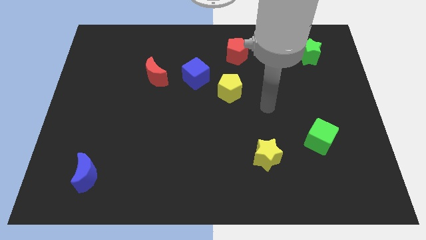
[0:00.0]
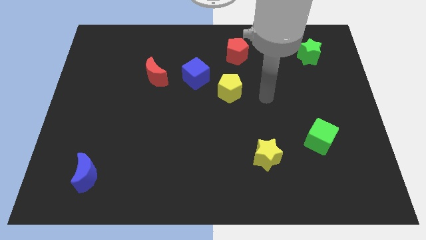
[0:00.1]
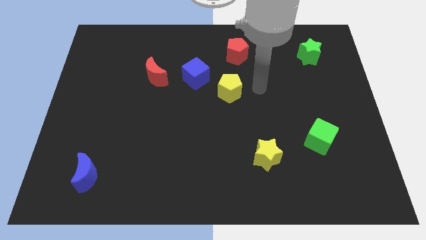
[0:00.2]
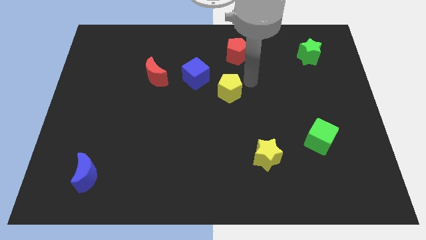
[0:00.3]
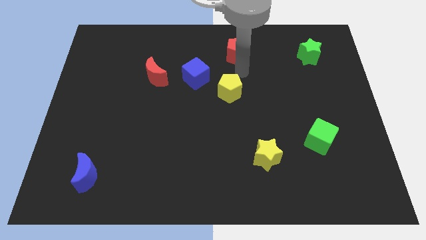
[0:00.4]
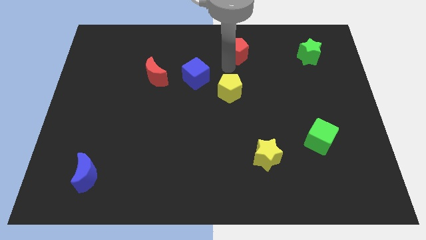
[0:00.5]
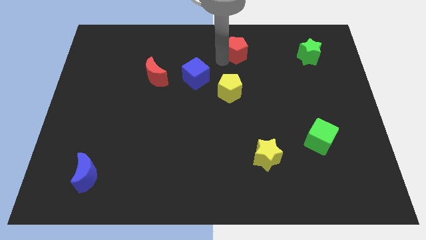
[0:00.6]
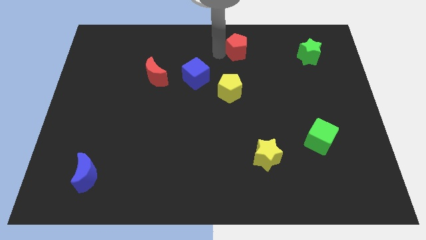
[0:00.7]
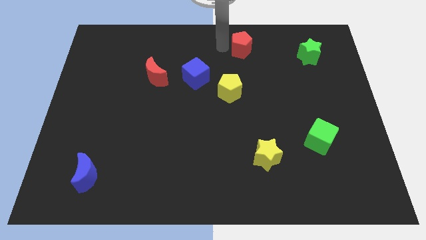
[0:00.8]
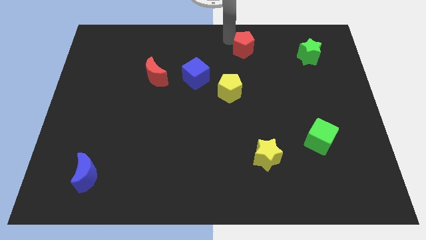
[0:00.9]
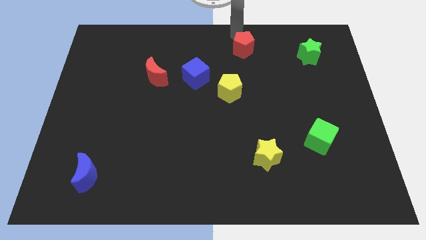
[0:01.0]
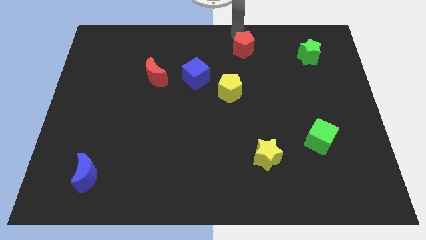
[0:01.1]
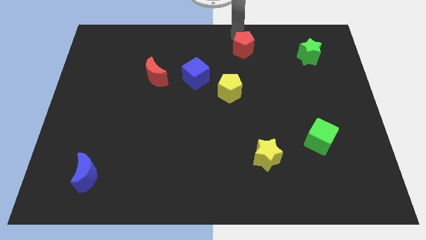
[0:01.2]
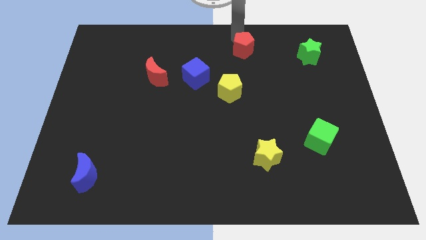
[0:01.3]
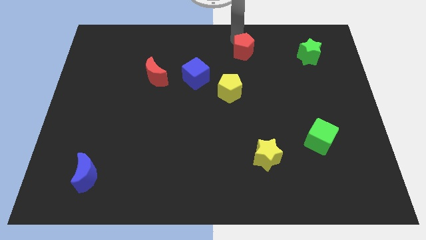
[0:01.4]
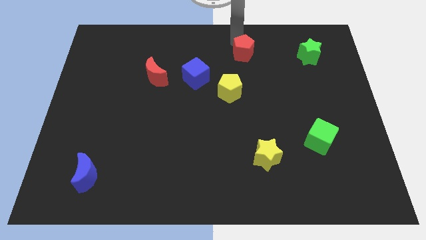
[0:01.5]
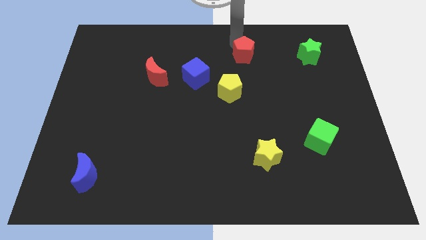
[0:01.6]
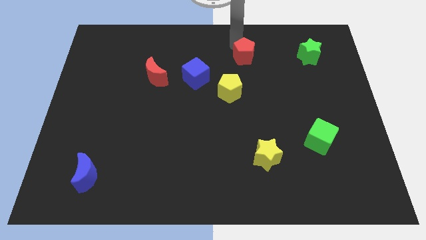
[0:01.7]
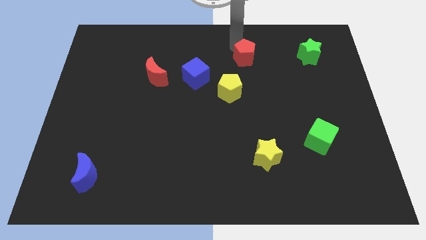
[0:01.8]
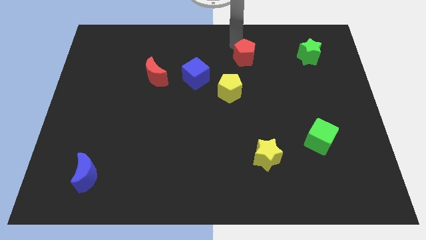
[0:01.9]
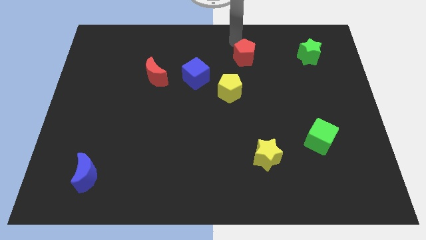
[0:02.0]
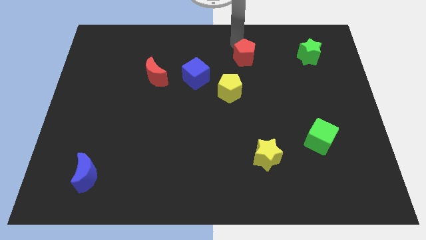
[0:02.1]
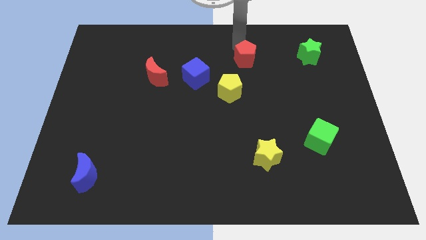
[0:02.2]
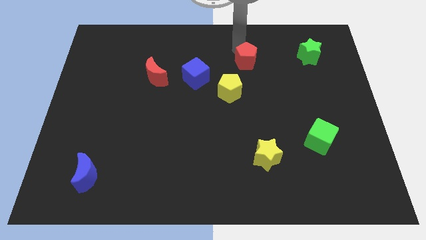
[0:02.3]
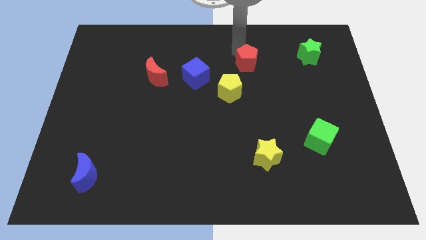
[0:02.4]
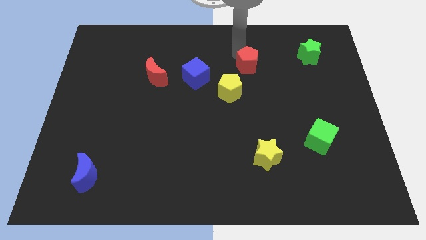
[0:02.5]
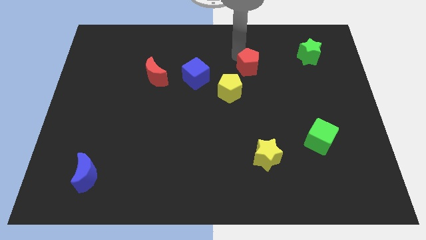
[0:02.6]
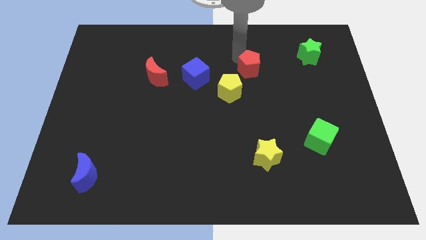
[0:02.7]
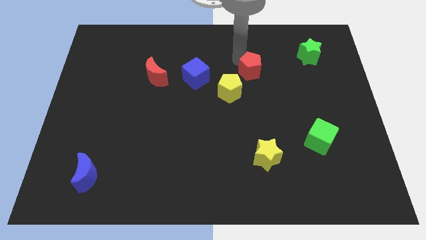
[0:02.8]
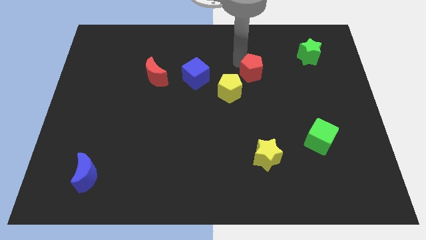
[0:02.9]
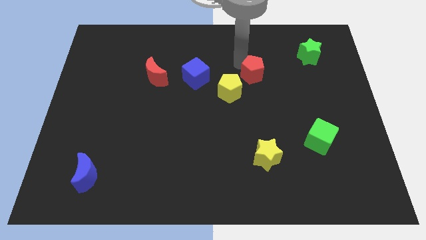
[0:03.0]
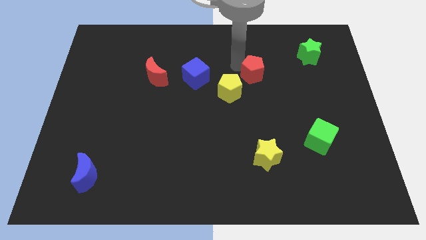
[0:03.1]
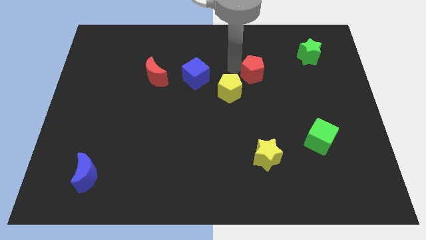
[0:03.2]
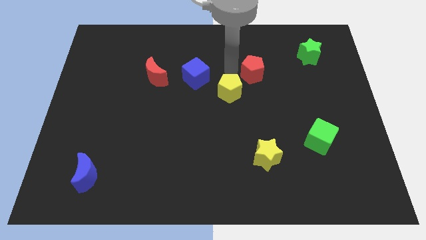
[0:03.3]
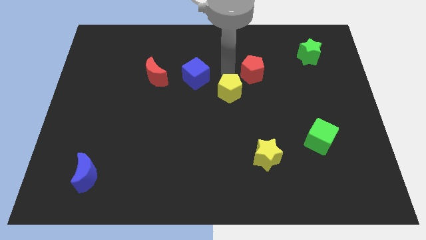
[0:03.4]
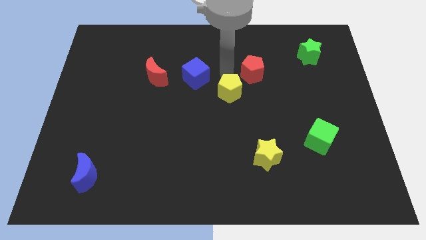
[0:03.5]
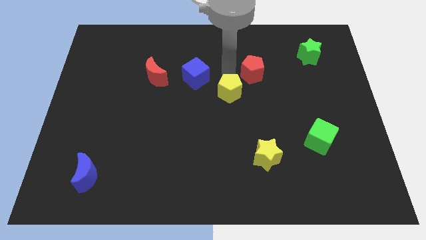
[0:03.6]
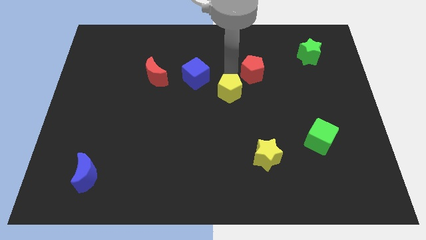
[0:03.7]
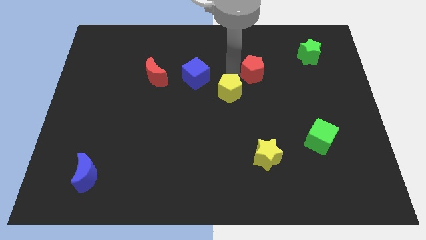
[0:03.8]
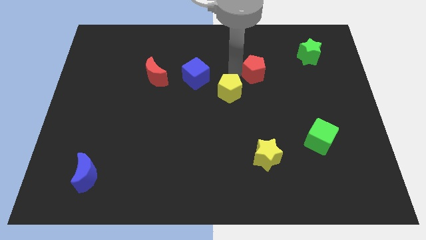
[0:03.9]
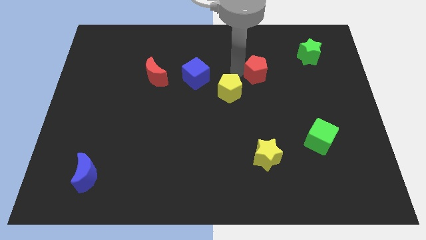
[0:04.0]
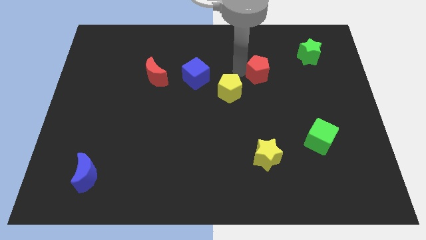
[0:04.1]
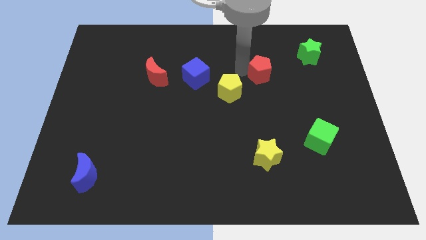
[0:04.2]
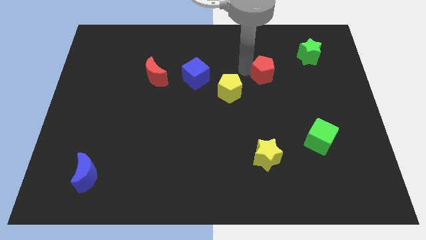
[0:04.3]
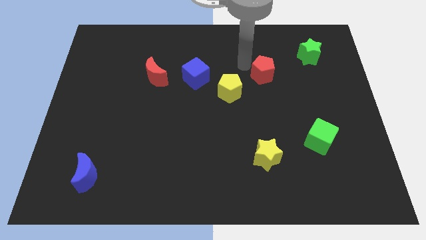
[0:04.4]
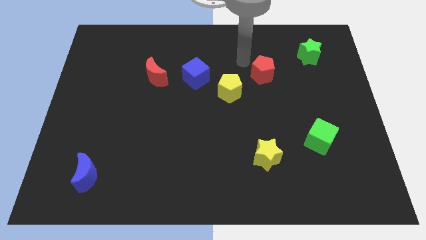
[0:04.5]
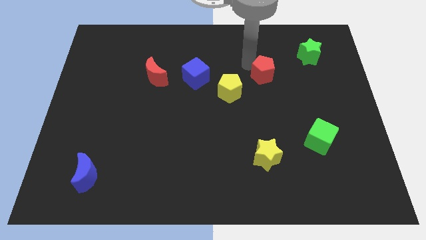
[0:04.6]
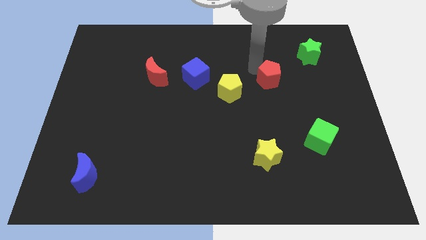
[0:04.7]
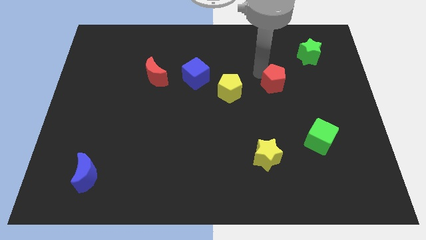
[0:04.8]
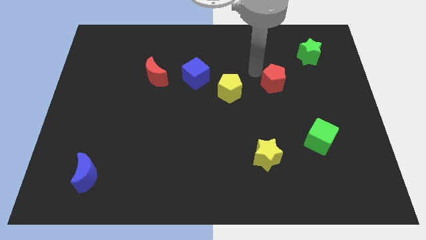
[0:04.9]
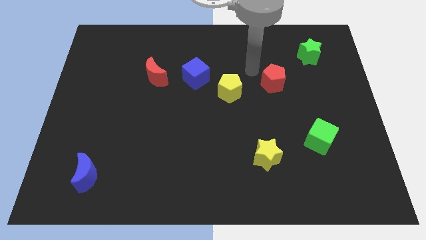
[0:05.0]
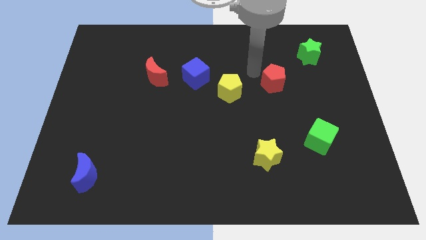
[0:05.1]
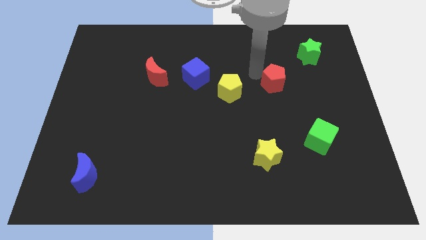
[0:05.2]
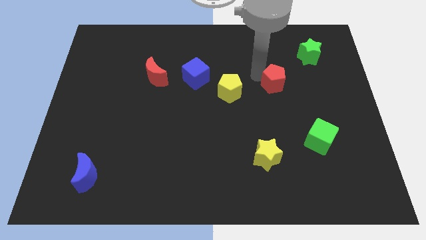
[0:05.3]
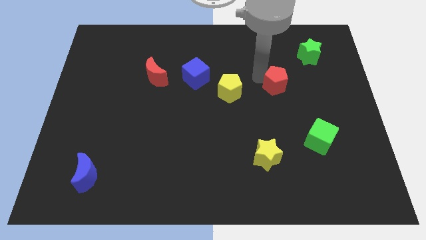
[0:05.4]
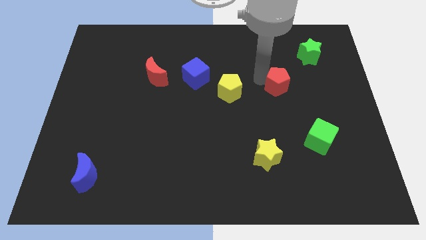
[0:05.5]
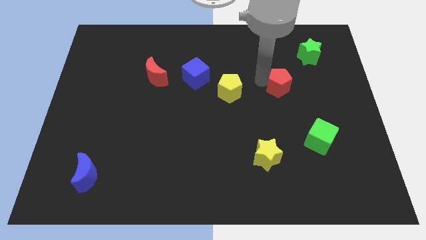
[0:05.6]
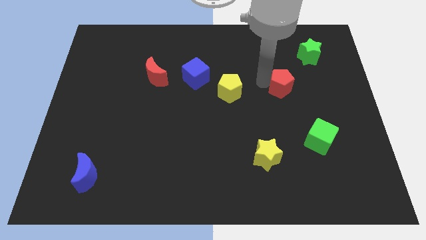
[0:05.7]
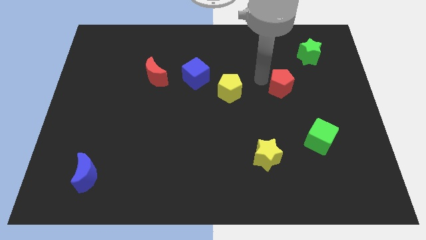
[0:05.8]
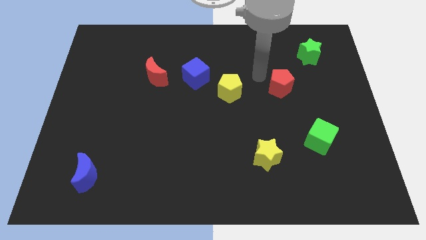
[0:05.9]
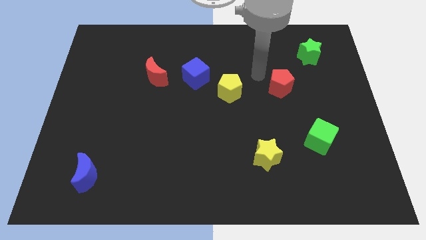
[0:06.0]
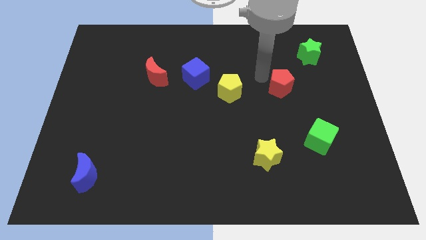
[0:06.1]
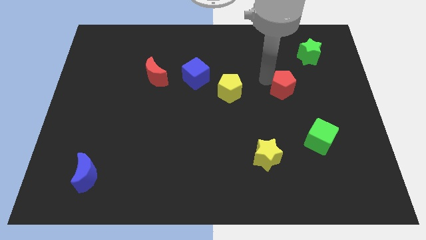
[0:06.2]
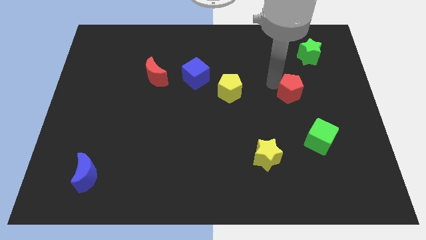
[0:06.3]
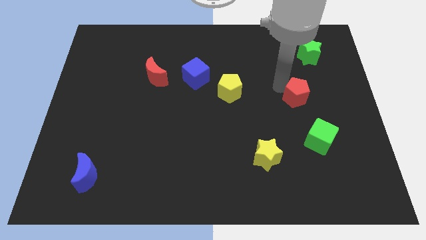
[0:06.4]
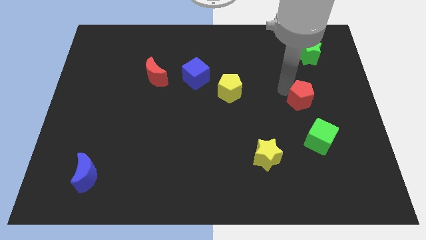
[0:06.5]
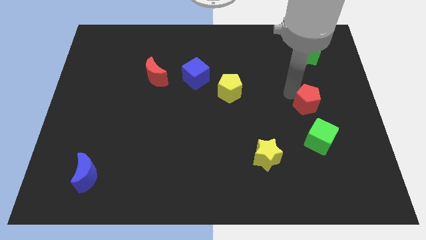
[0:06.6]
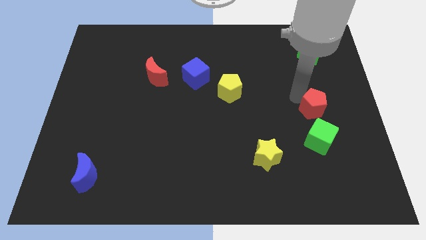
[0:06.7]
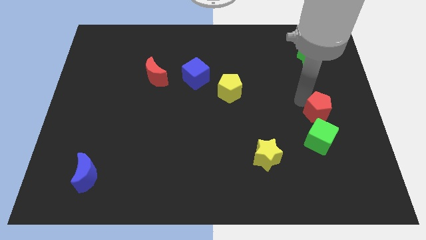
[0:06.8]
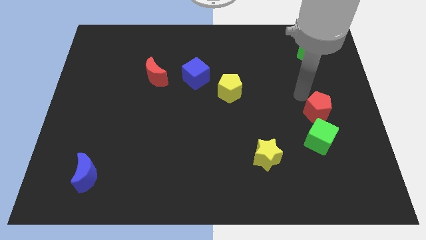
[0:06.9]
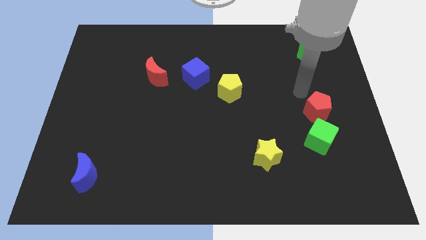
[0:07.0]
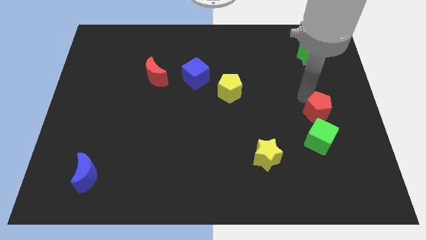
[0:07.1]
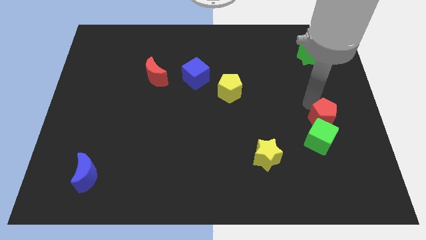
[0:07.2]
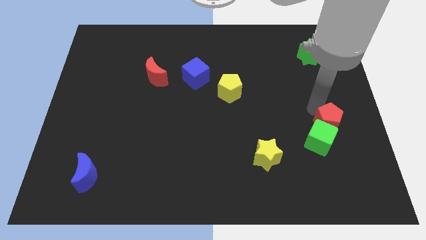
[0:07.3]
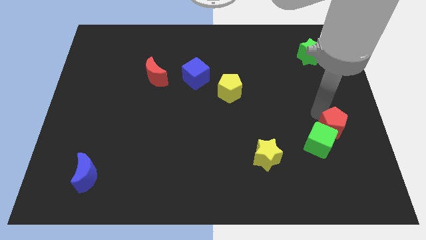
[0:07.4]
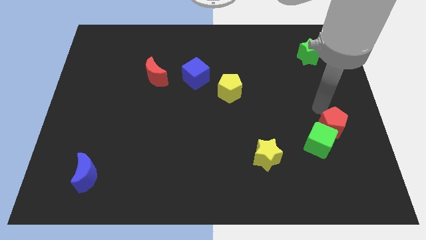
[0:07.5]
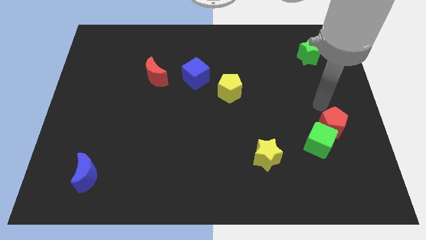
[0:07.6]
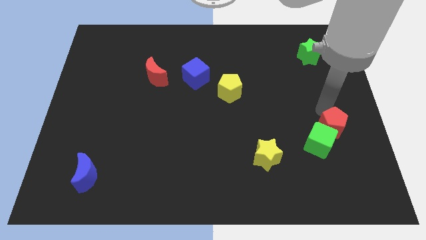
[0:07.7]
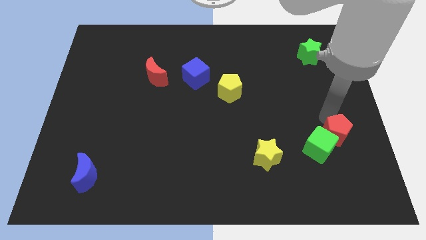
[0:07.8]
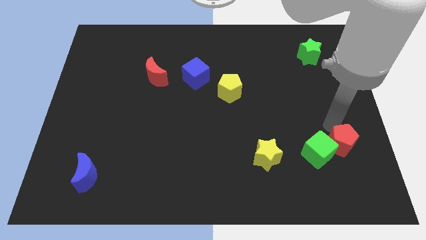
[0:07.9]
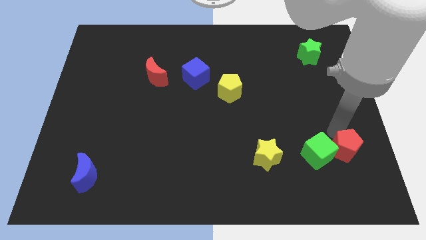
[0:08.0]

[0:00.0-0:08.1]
push the red pentagon to the bottom right of the green cube
